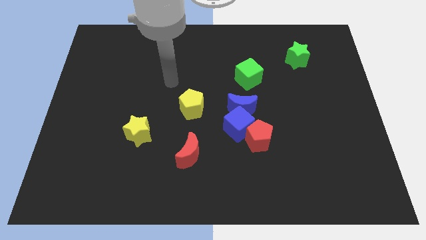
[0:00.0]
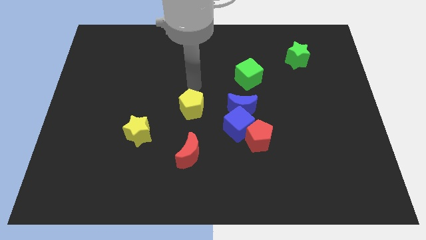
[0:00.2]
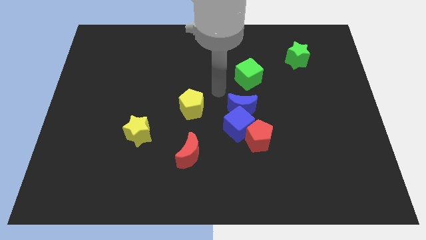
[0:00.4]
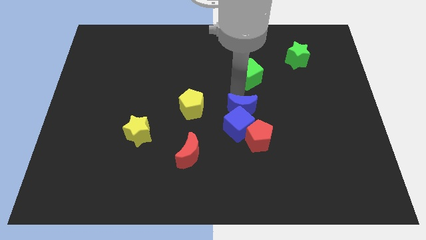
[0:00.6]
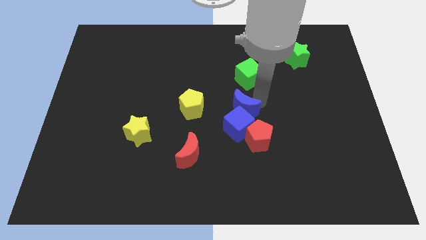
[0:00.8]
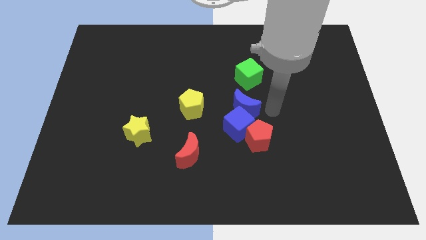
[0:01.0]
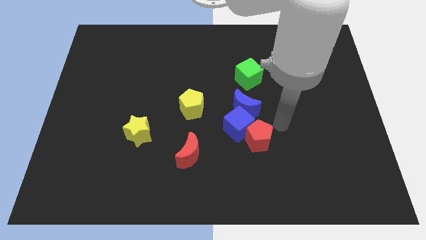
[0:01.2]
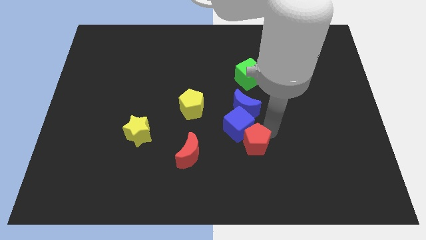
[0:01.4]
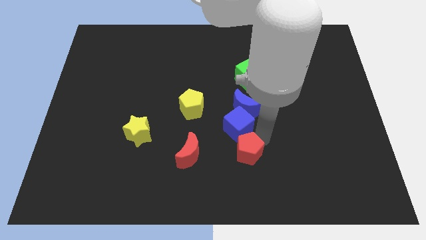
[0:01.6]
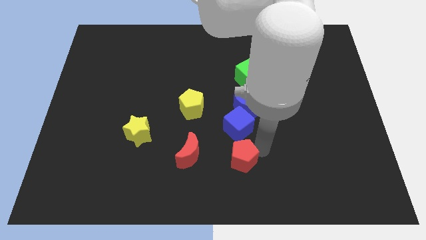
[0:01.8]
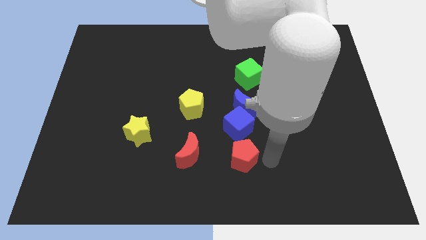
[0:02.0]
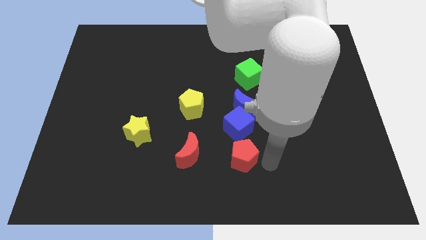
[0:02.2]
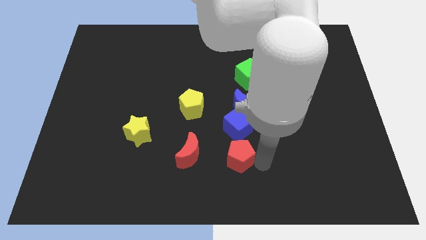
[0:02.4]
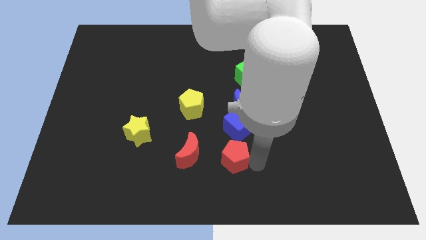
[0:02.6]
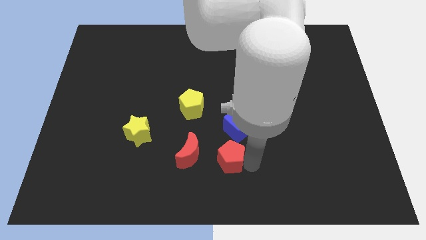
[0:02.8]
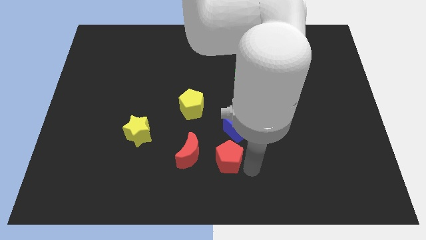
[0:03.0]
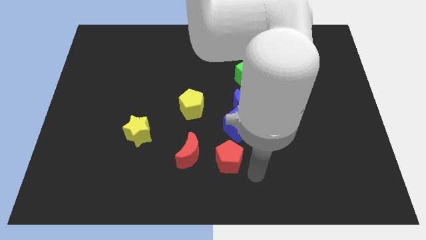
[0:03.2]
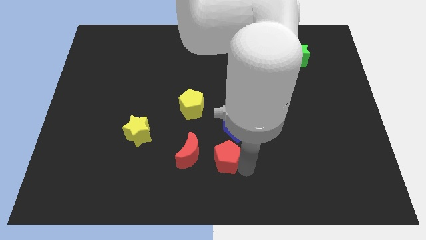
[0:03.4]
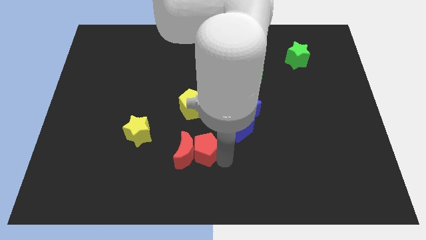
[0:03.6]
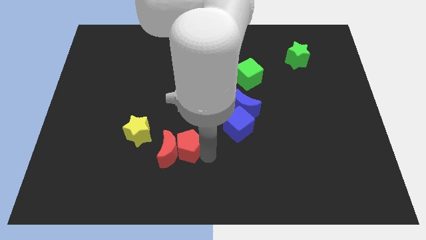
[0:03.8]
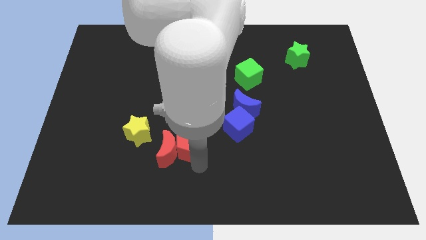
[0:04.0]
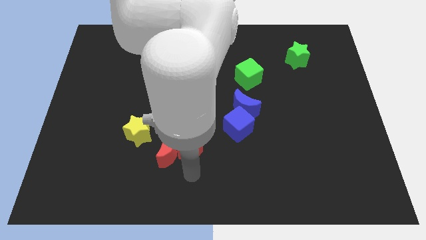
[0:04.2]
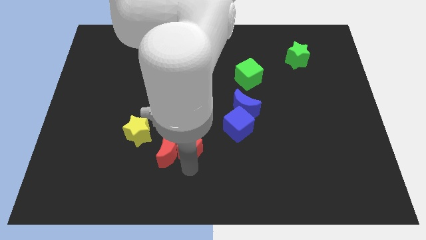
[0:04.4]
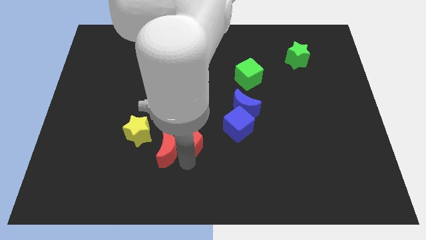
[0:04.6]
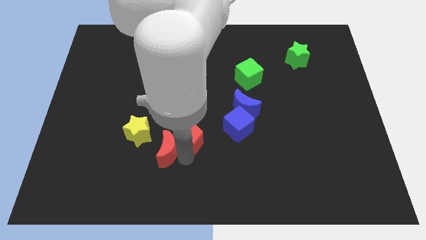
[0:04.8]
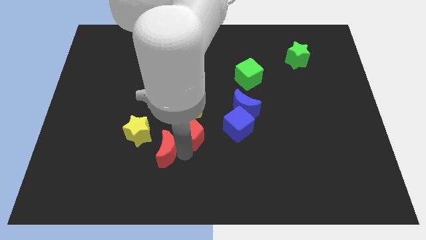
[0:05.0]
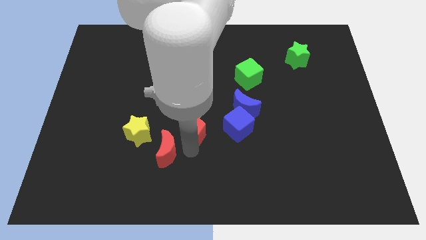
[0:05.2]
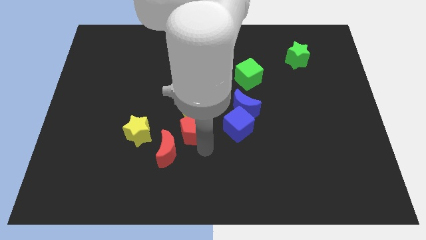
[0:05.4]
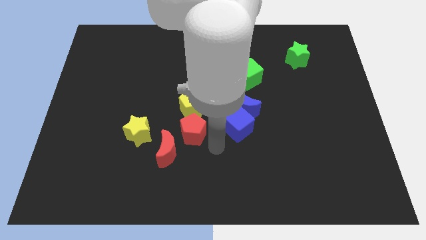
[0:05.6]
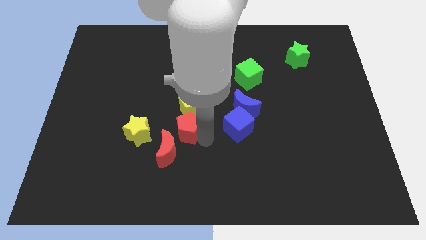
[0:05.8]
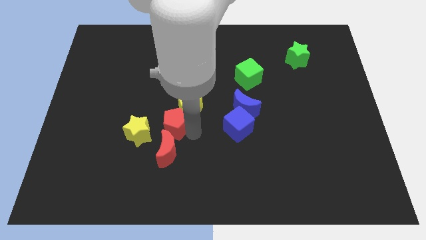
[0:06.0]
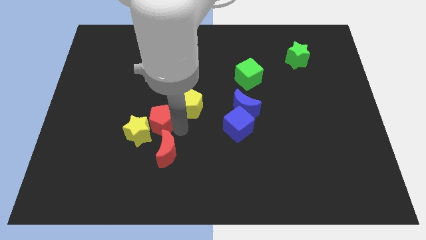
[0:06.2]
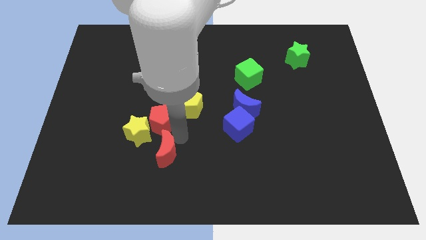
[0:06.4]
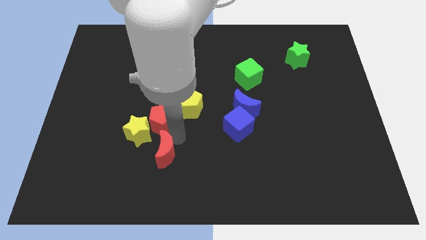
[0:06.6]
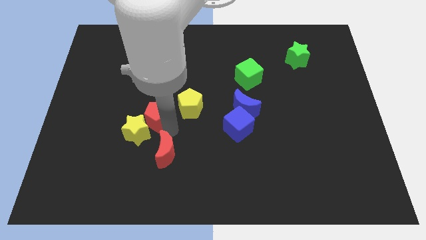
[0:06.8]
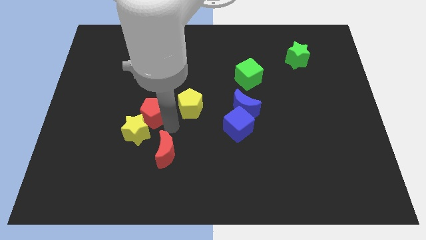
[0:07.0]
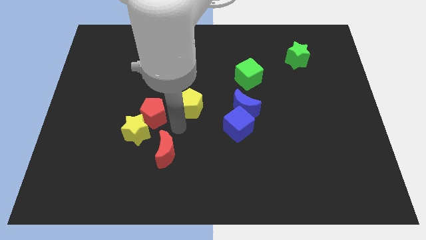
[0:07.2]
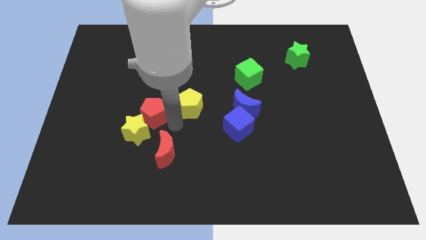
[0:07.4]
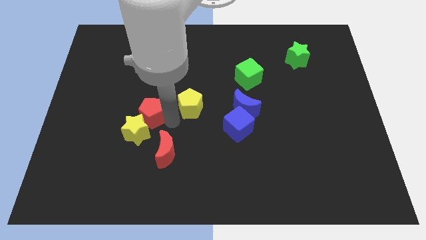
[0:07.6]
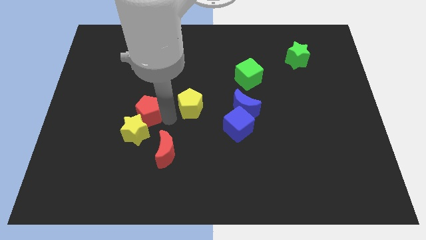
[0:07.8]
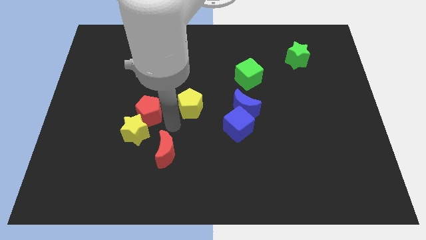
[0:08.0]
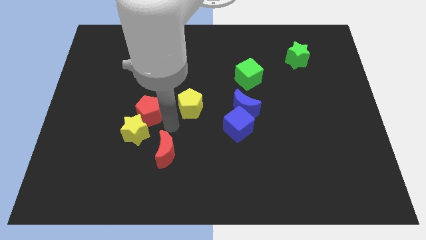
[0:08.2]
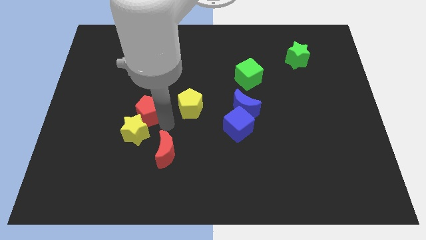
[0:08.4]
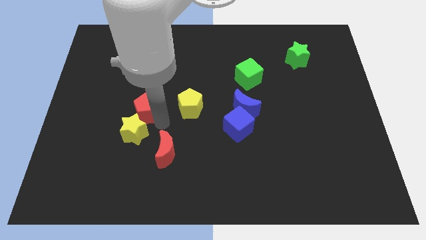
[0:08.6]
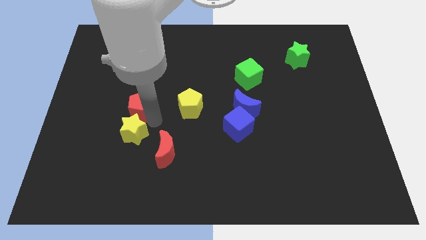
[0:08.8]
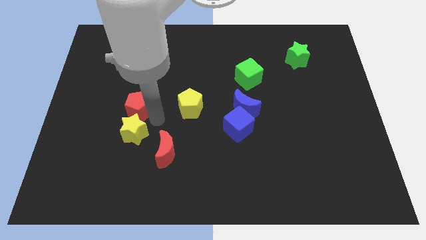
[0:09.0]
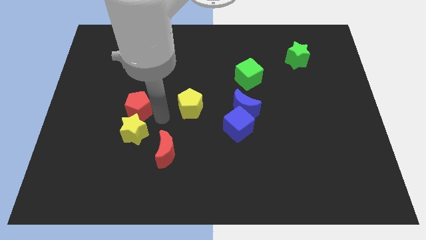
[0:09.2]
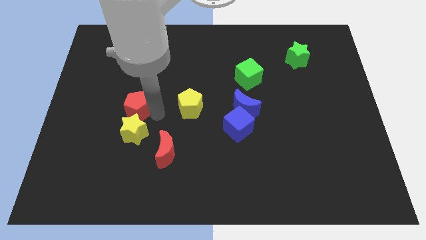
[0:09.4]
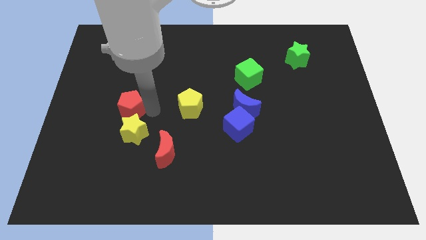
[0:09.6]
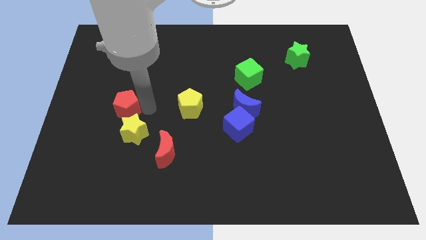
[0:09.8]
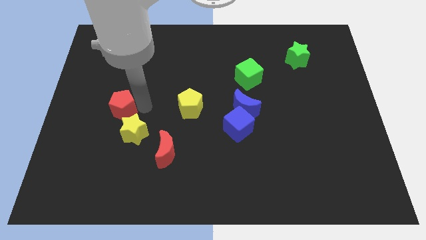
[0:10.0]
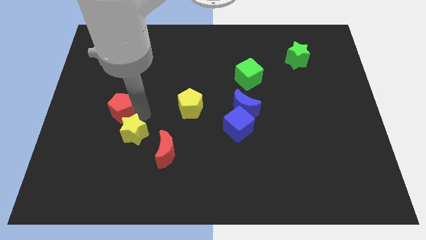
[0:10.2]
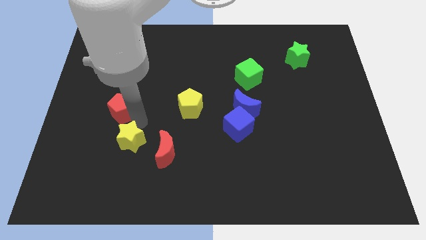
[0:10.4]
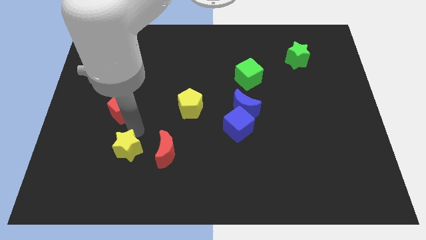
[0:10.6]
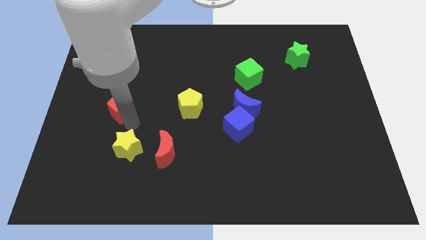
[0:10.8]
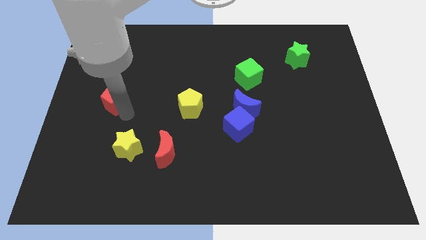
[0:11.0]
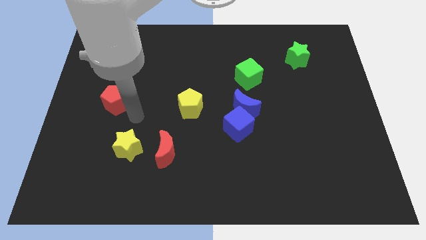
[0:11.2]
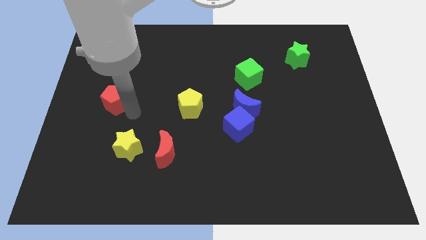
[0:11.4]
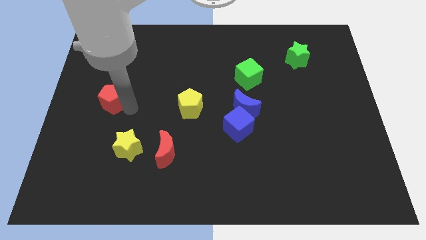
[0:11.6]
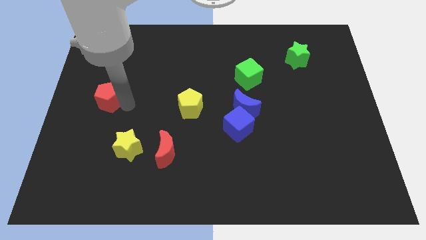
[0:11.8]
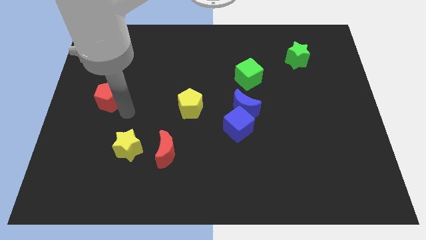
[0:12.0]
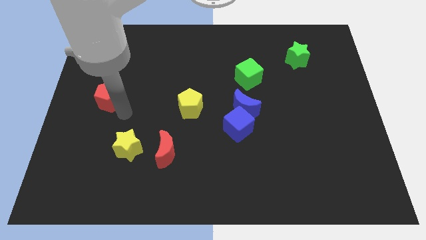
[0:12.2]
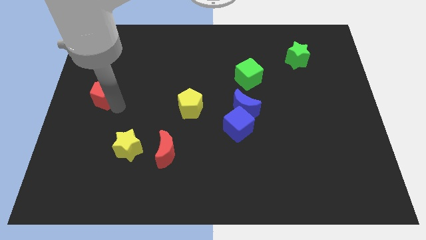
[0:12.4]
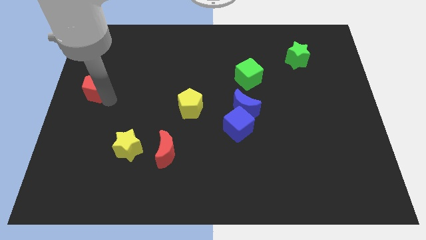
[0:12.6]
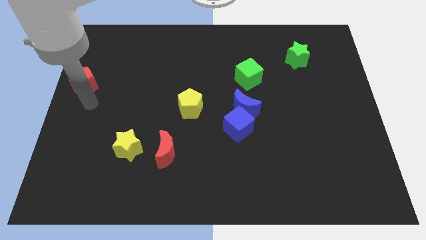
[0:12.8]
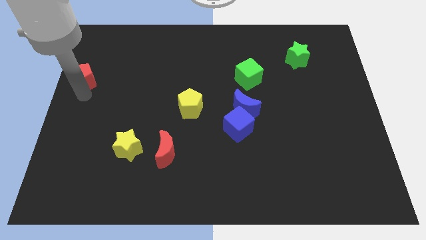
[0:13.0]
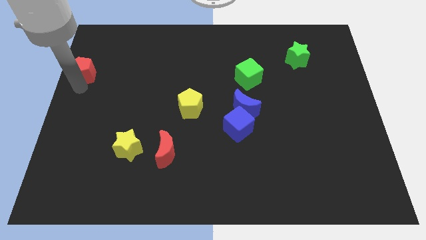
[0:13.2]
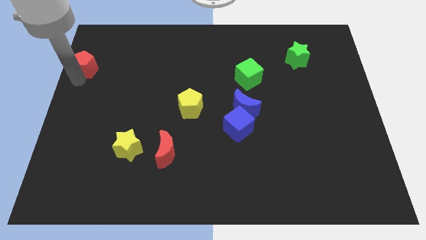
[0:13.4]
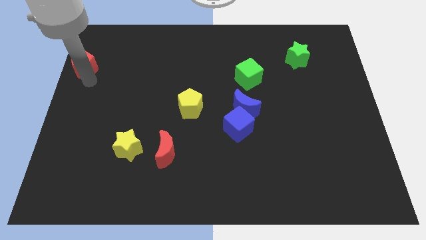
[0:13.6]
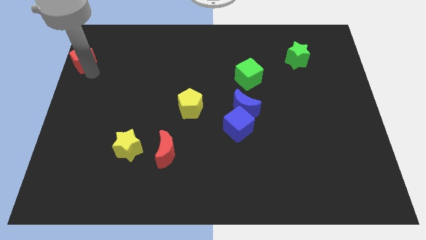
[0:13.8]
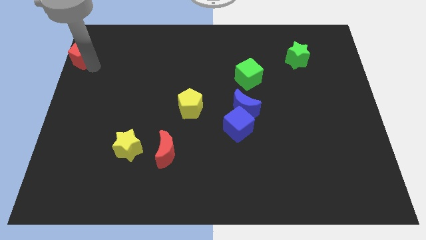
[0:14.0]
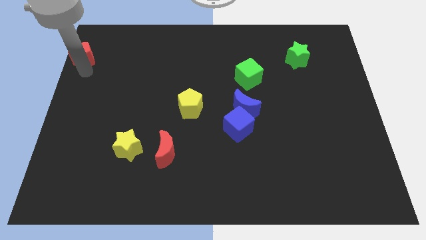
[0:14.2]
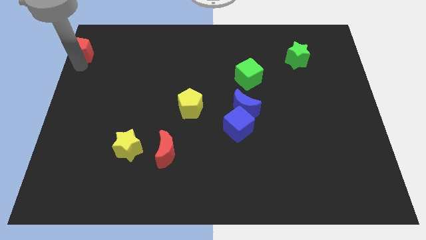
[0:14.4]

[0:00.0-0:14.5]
slide the red pentagon to the top left
